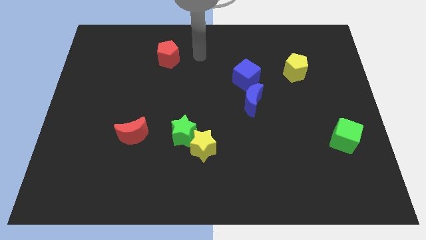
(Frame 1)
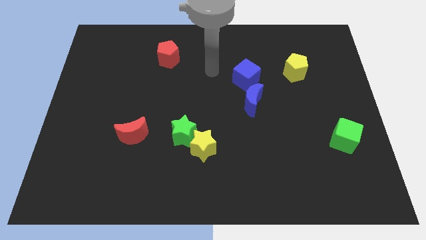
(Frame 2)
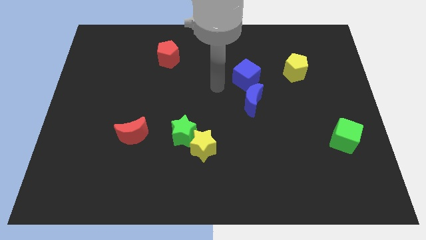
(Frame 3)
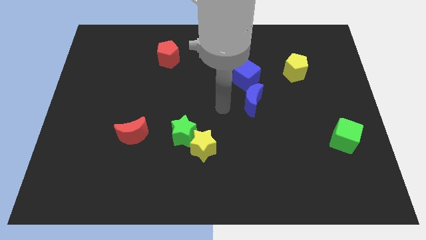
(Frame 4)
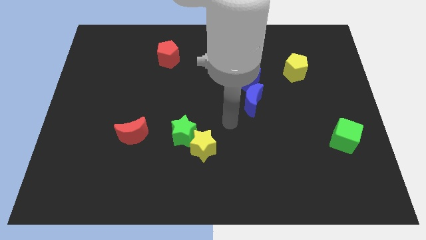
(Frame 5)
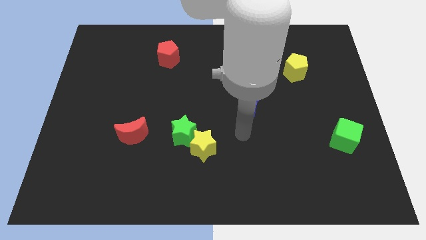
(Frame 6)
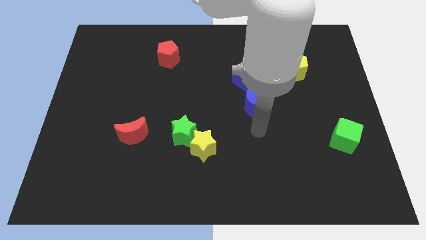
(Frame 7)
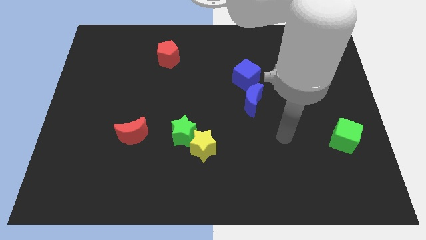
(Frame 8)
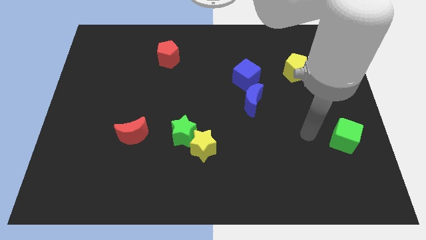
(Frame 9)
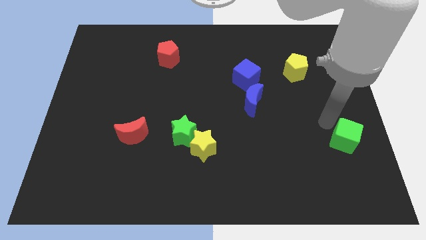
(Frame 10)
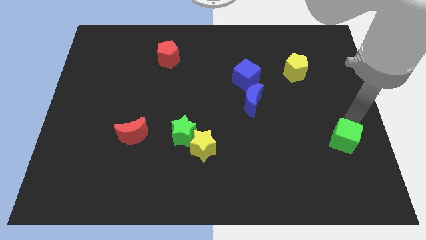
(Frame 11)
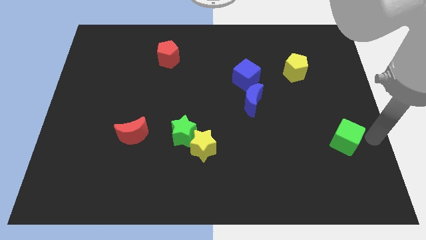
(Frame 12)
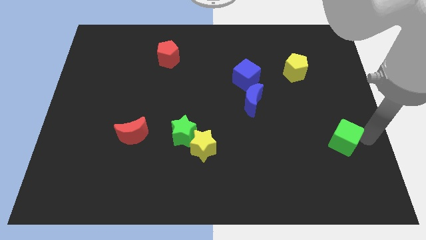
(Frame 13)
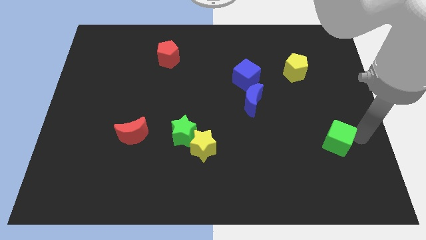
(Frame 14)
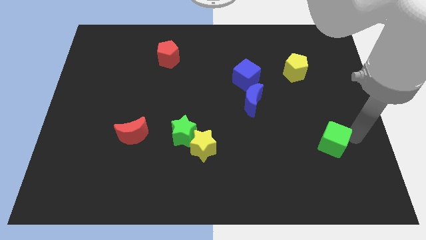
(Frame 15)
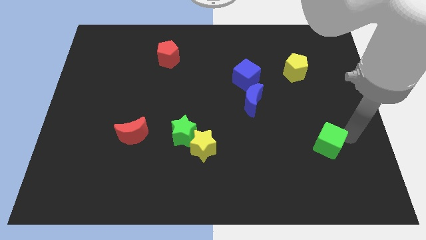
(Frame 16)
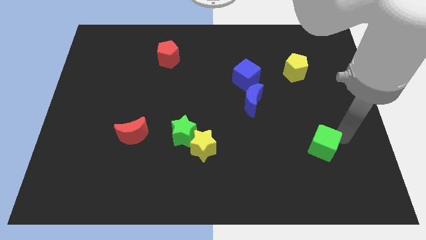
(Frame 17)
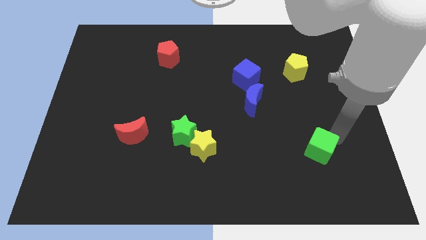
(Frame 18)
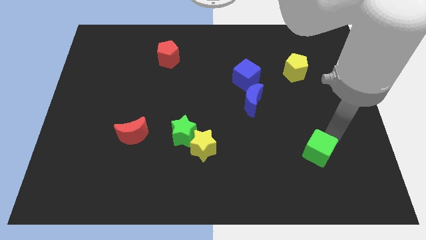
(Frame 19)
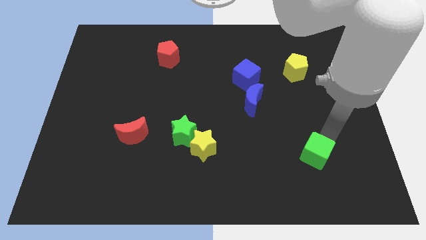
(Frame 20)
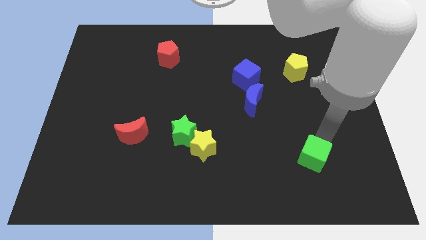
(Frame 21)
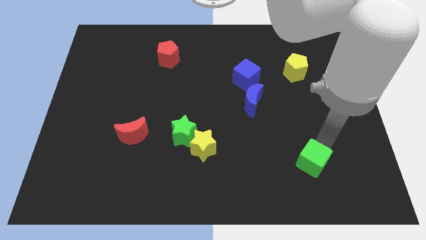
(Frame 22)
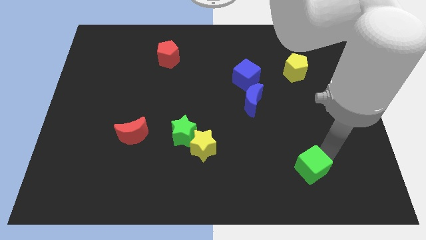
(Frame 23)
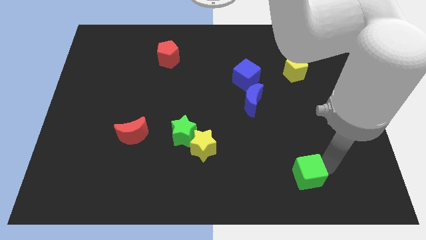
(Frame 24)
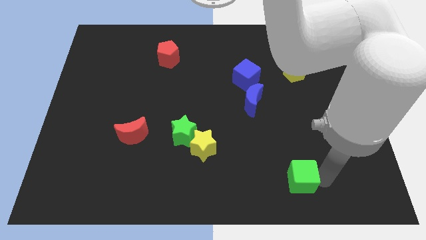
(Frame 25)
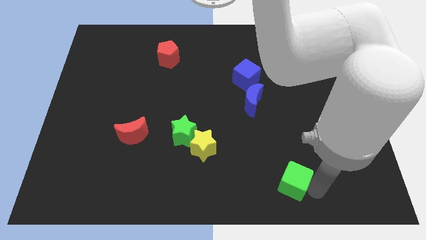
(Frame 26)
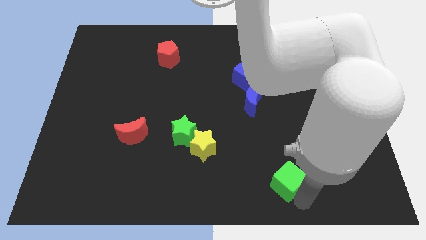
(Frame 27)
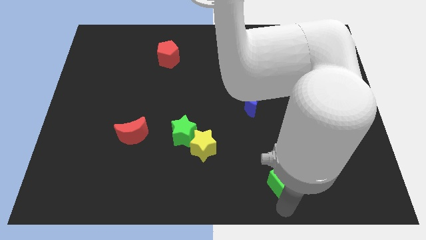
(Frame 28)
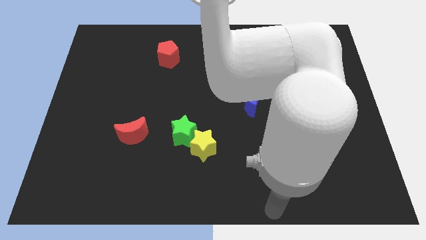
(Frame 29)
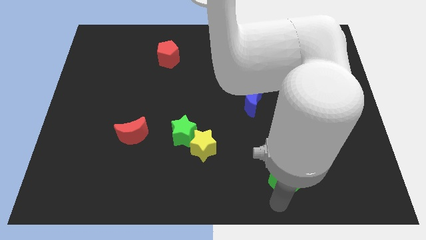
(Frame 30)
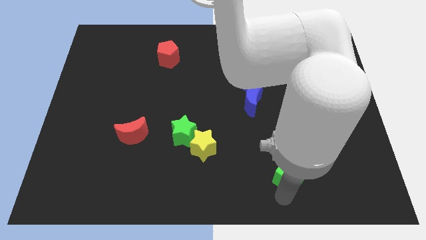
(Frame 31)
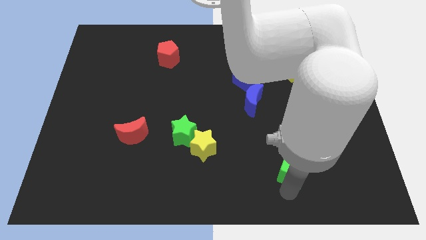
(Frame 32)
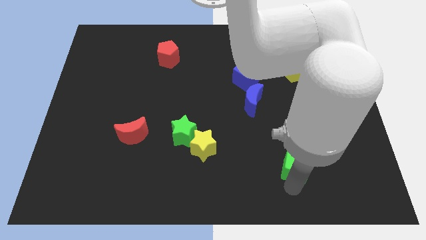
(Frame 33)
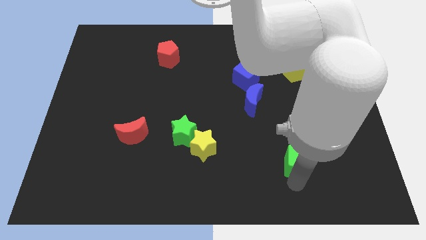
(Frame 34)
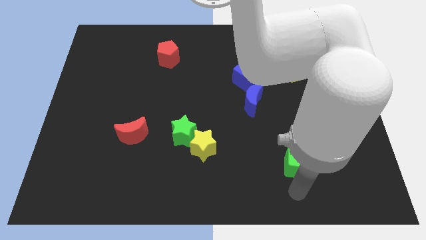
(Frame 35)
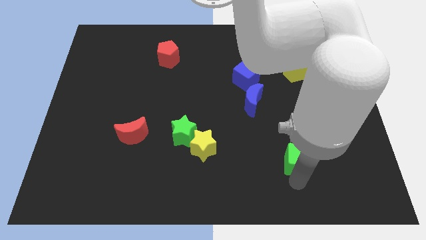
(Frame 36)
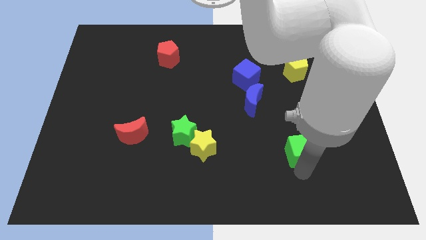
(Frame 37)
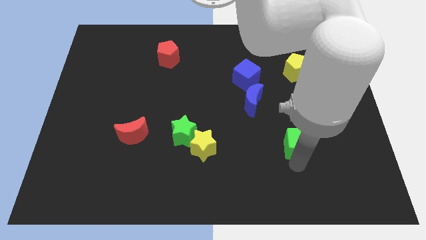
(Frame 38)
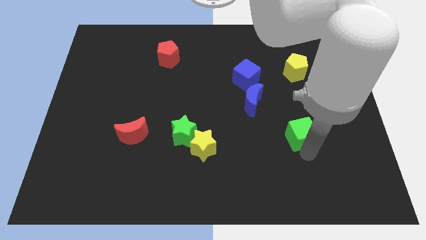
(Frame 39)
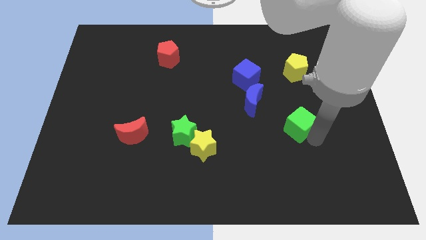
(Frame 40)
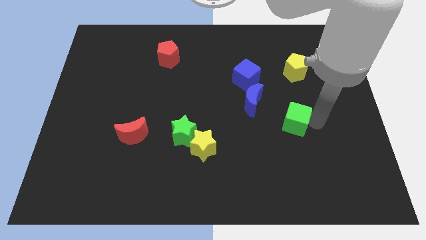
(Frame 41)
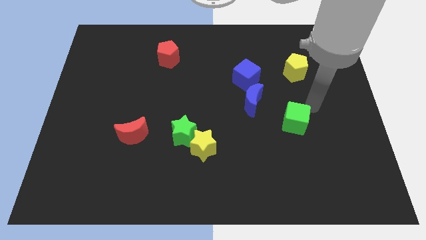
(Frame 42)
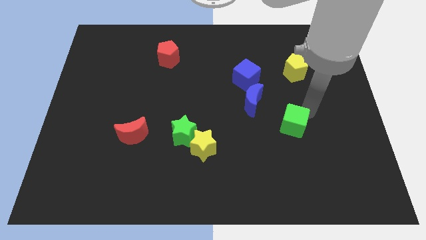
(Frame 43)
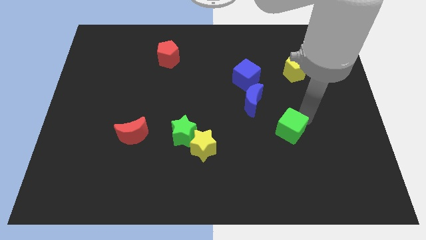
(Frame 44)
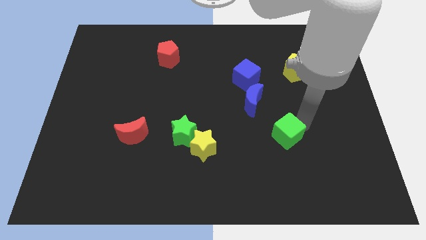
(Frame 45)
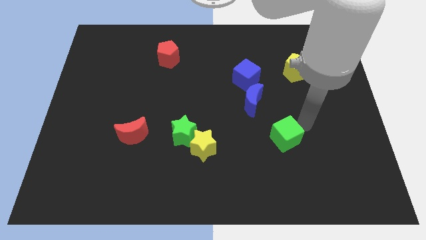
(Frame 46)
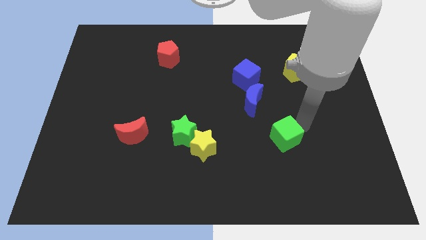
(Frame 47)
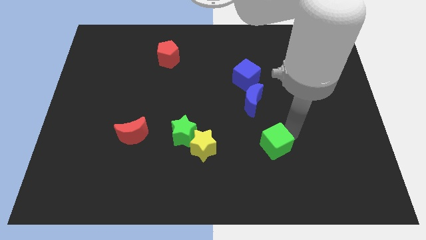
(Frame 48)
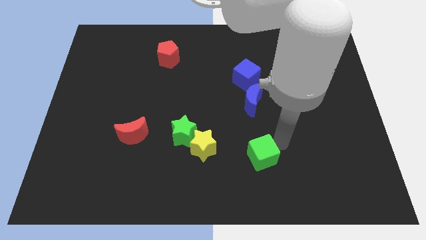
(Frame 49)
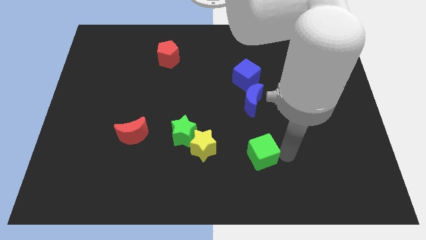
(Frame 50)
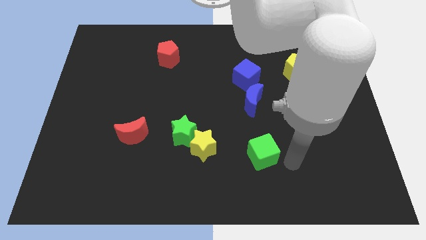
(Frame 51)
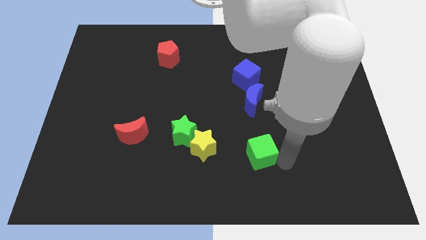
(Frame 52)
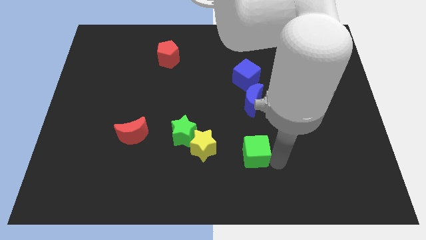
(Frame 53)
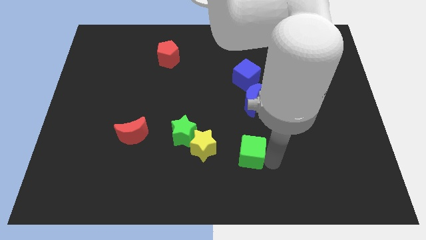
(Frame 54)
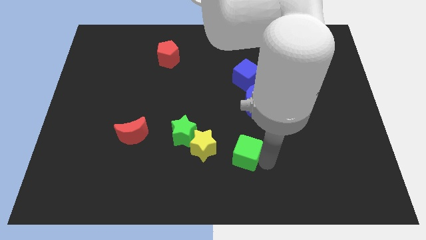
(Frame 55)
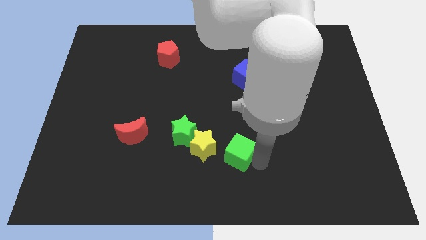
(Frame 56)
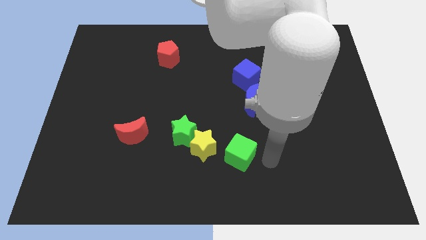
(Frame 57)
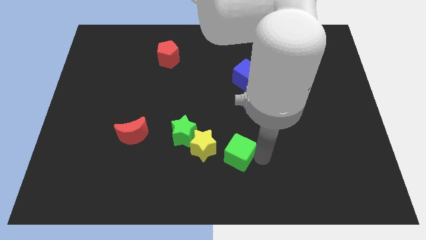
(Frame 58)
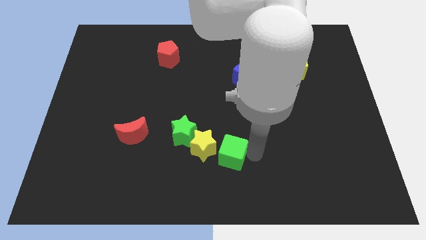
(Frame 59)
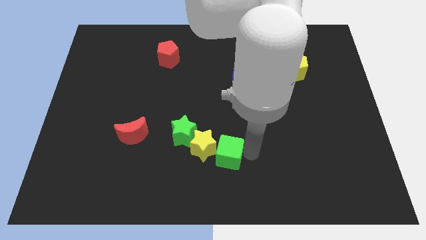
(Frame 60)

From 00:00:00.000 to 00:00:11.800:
slide the green cube close to the yellow star
